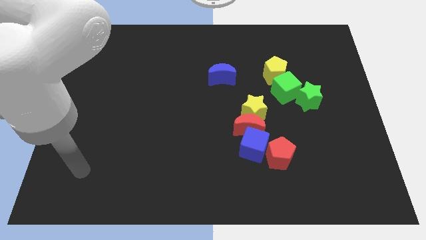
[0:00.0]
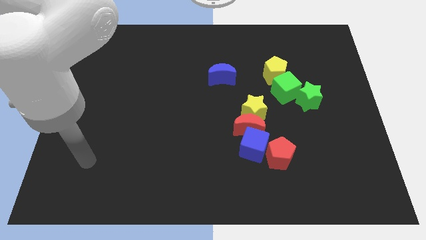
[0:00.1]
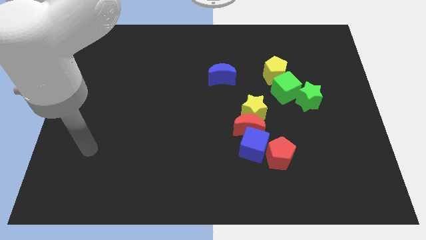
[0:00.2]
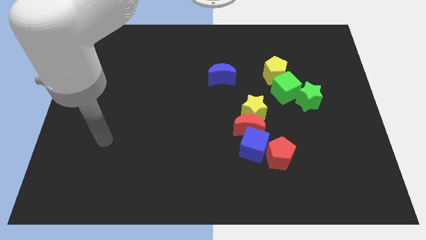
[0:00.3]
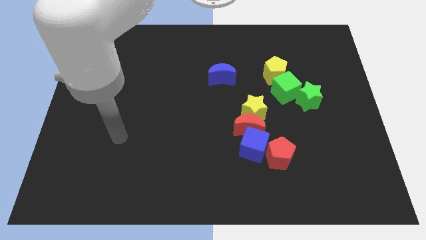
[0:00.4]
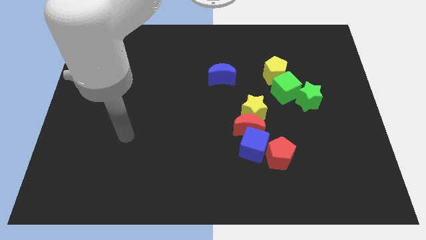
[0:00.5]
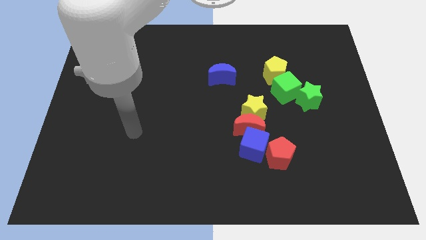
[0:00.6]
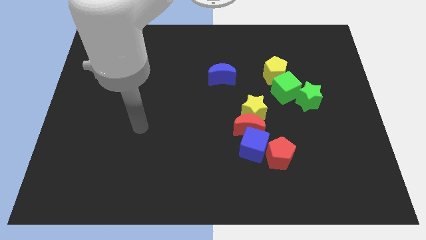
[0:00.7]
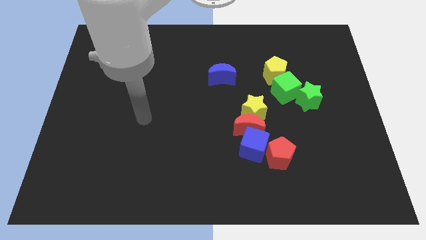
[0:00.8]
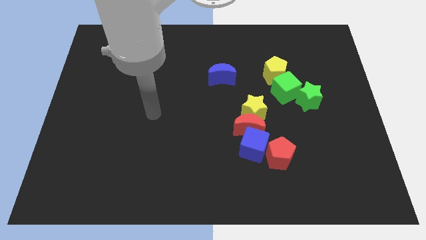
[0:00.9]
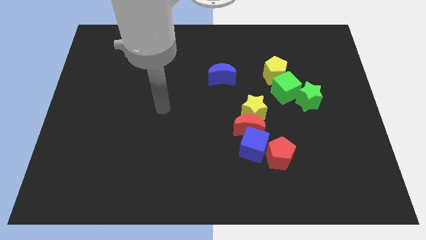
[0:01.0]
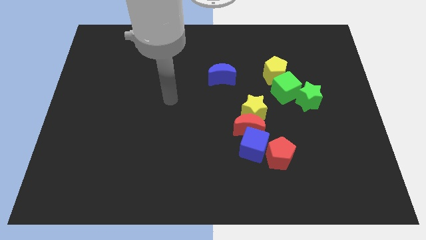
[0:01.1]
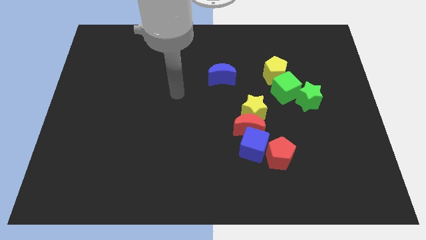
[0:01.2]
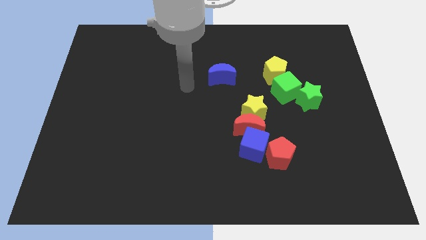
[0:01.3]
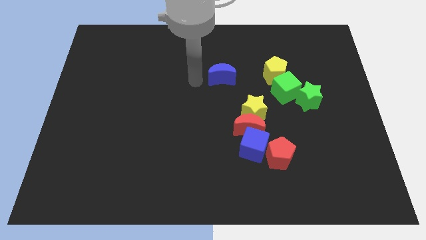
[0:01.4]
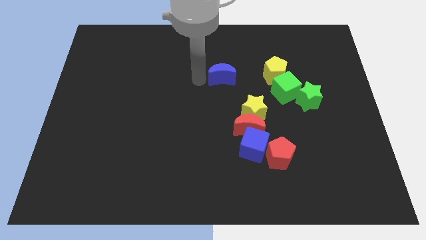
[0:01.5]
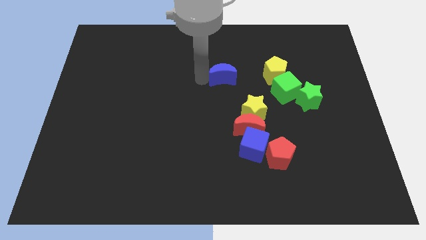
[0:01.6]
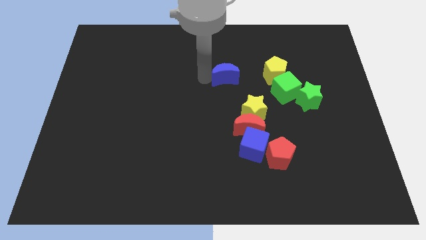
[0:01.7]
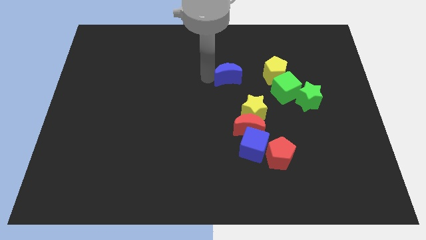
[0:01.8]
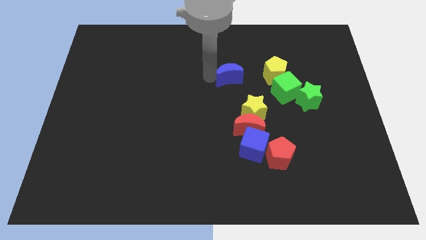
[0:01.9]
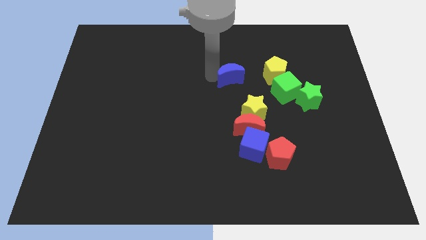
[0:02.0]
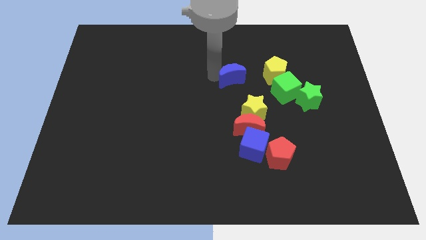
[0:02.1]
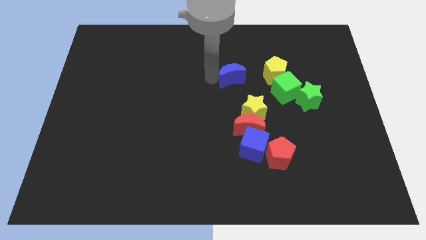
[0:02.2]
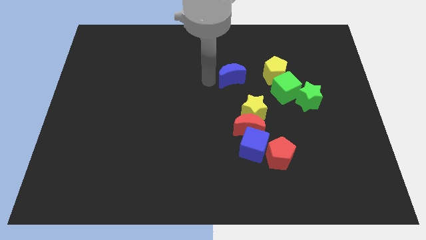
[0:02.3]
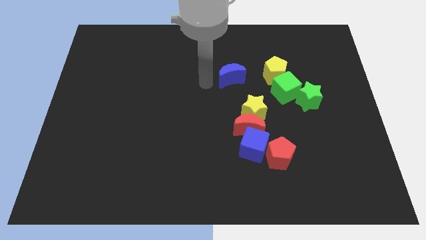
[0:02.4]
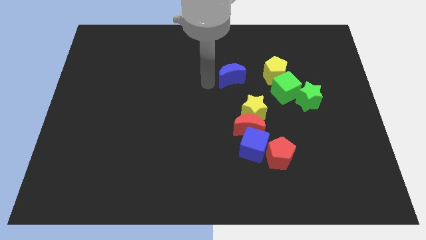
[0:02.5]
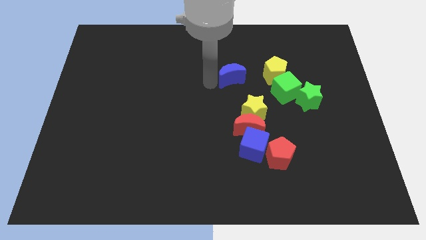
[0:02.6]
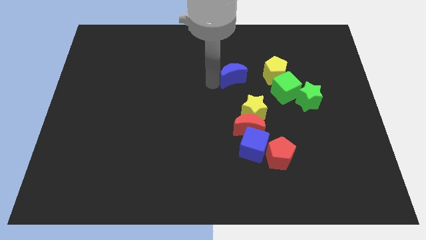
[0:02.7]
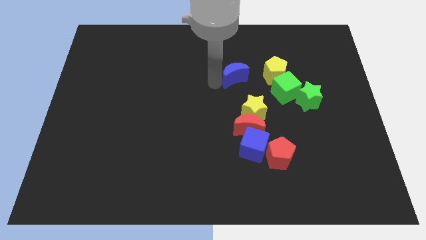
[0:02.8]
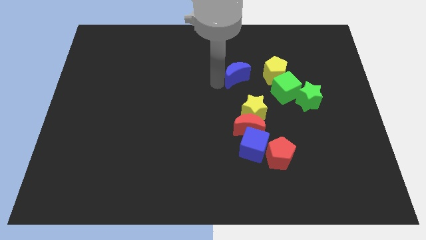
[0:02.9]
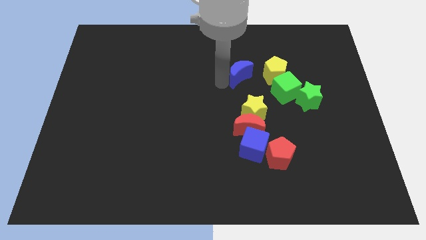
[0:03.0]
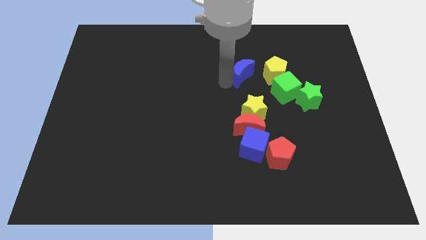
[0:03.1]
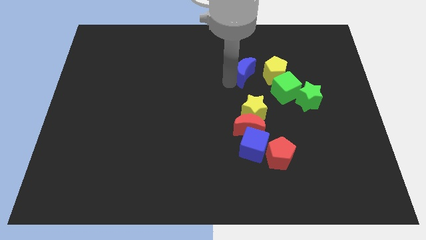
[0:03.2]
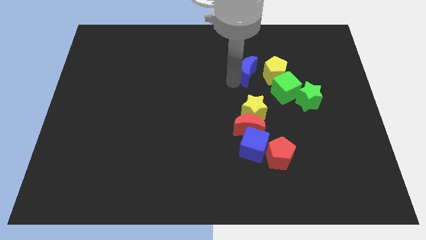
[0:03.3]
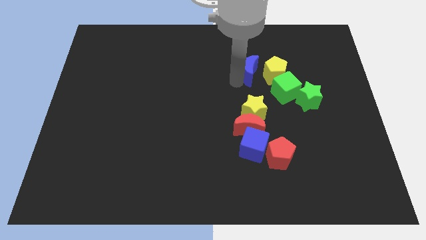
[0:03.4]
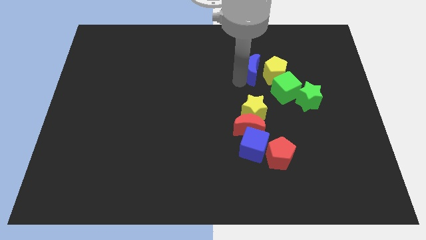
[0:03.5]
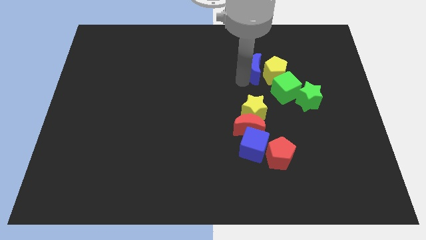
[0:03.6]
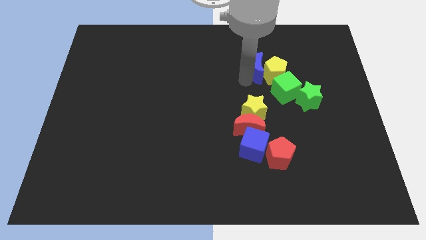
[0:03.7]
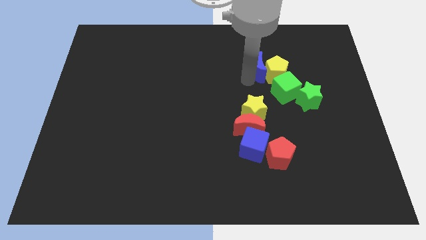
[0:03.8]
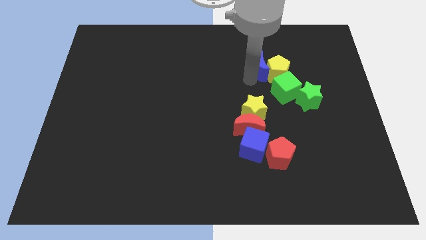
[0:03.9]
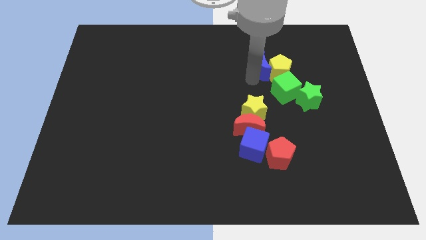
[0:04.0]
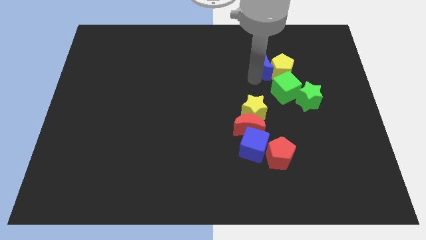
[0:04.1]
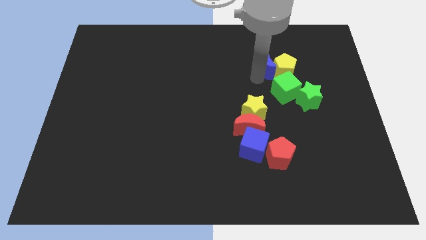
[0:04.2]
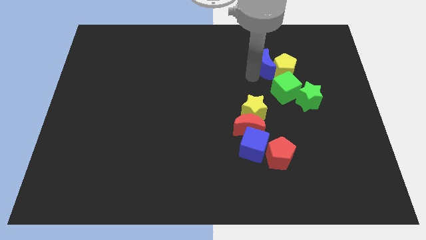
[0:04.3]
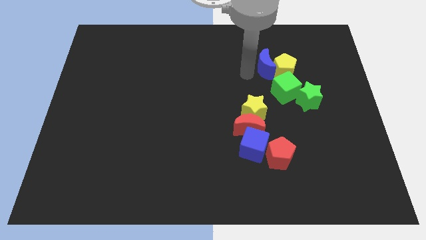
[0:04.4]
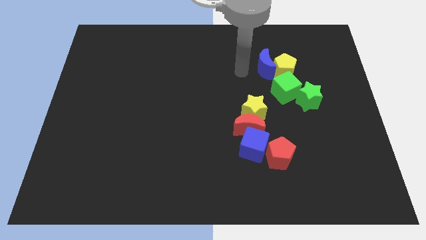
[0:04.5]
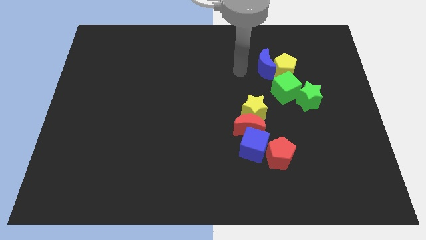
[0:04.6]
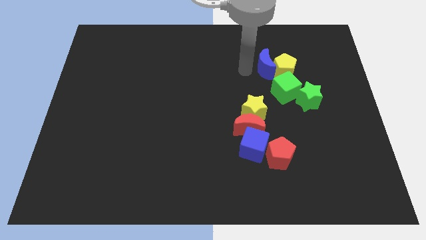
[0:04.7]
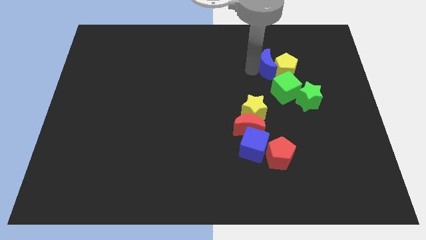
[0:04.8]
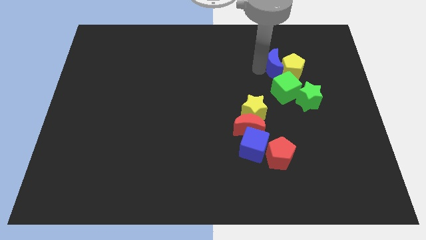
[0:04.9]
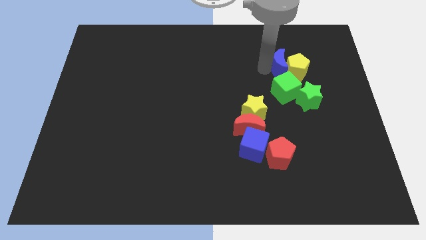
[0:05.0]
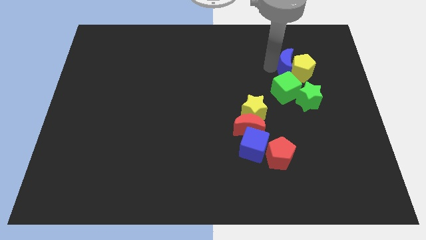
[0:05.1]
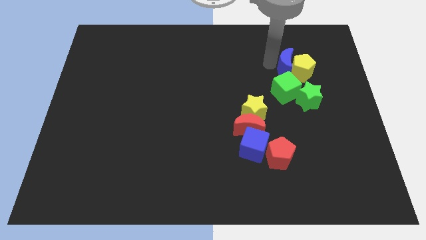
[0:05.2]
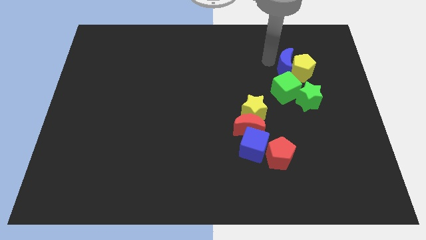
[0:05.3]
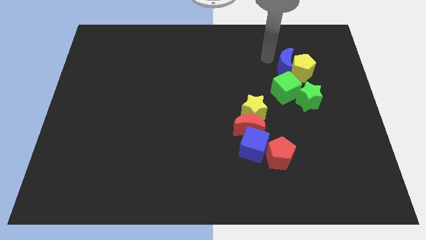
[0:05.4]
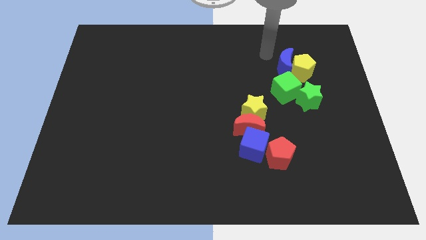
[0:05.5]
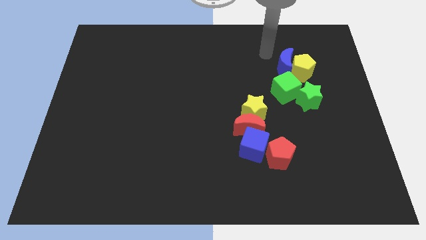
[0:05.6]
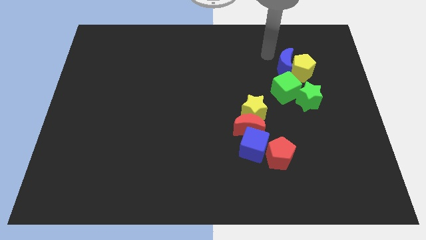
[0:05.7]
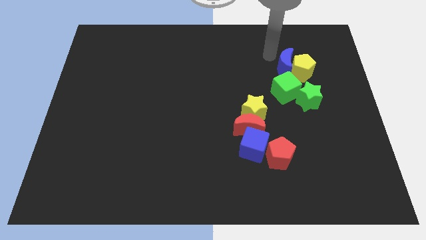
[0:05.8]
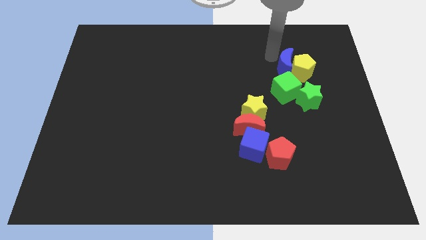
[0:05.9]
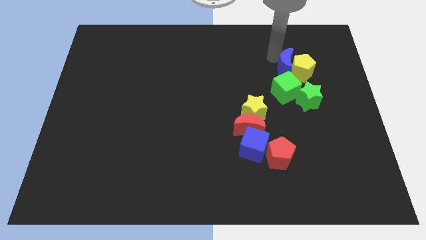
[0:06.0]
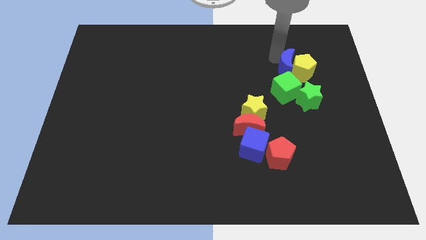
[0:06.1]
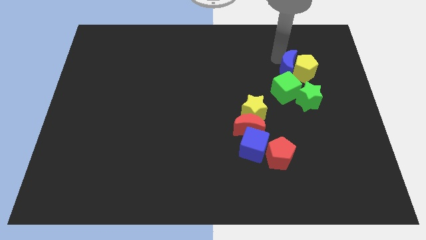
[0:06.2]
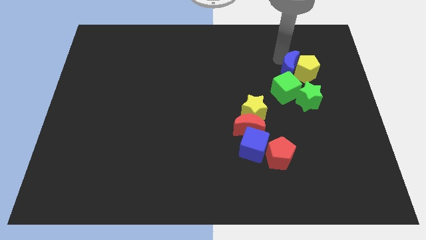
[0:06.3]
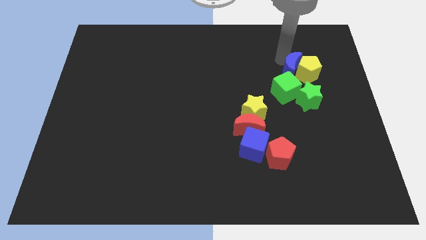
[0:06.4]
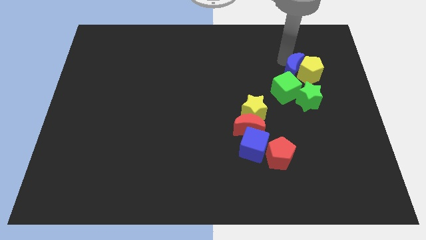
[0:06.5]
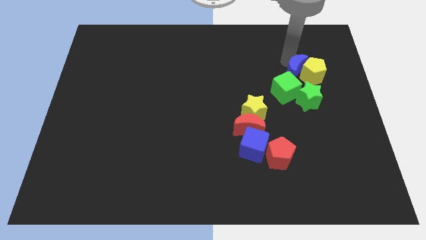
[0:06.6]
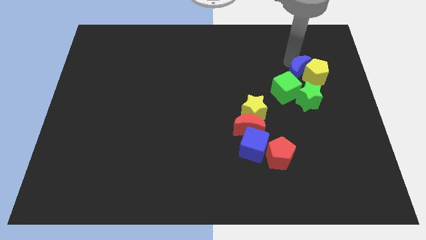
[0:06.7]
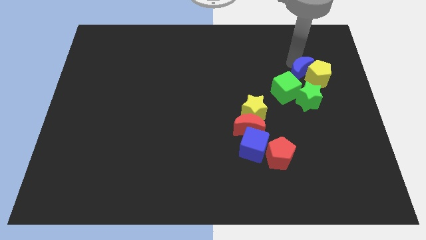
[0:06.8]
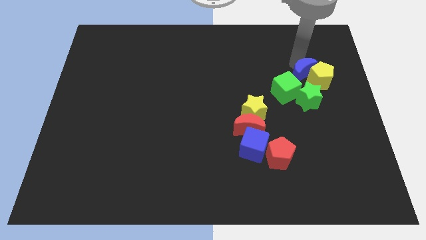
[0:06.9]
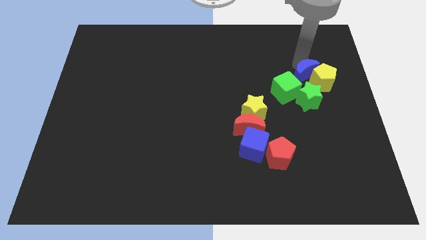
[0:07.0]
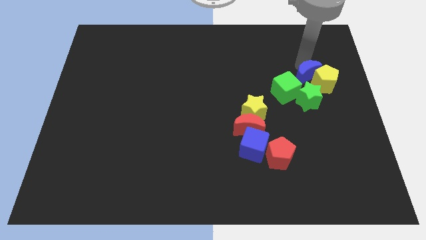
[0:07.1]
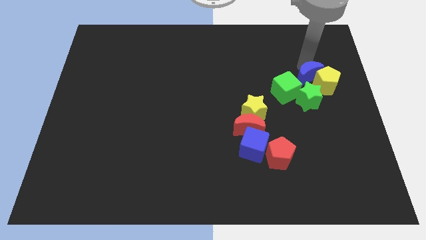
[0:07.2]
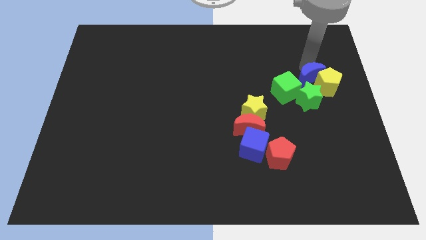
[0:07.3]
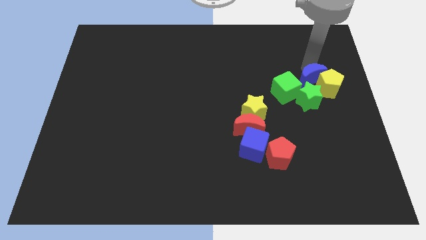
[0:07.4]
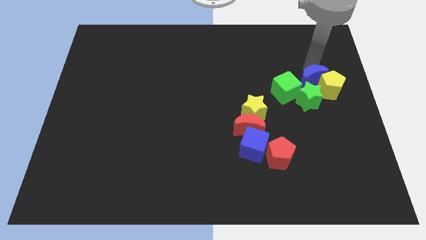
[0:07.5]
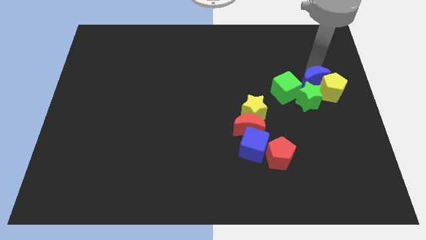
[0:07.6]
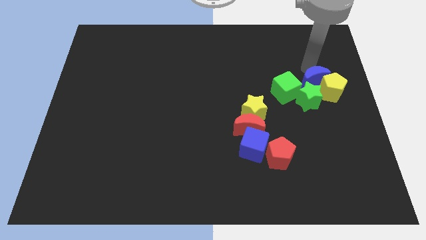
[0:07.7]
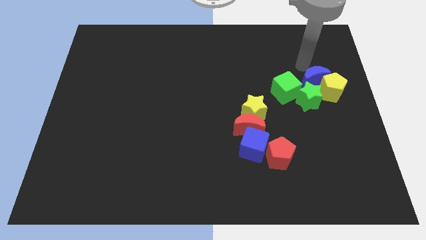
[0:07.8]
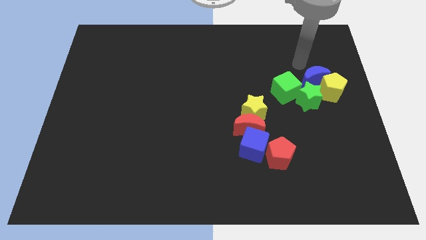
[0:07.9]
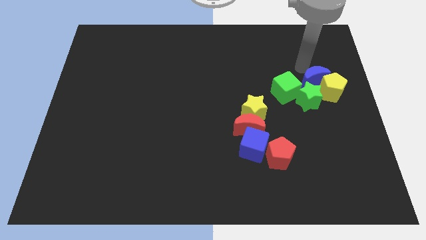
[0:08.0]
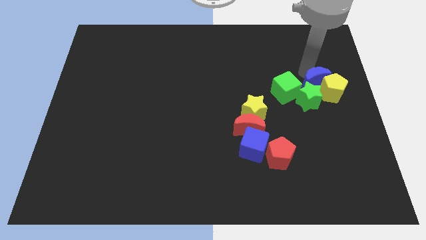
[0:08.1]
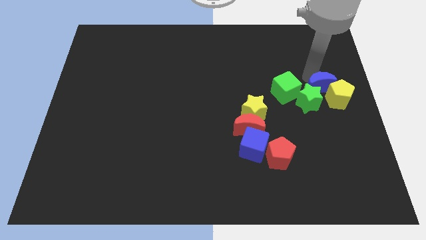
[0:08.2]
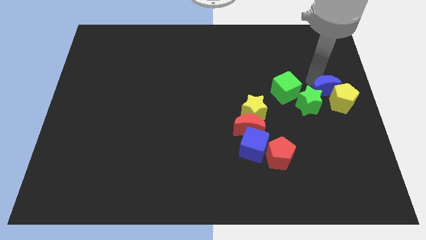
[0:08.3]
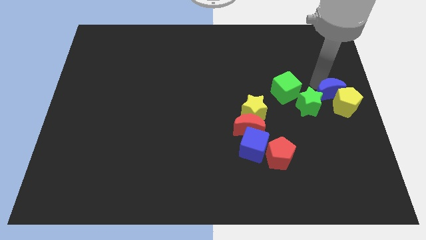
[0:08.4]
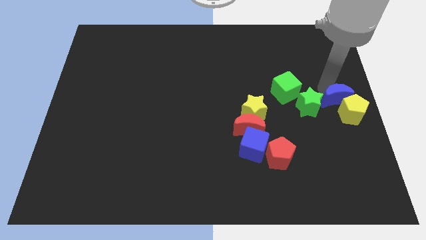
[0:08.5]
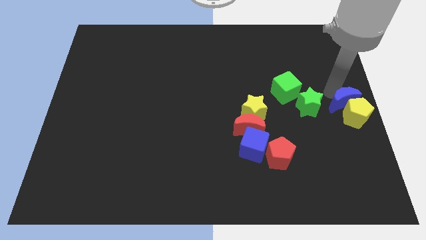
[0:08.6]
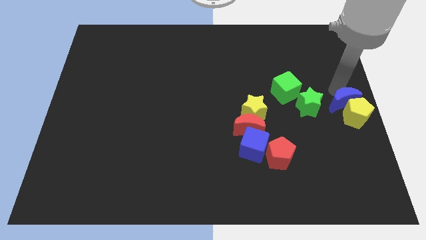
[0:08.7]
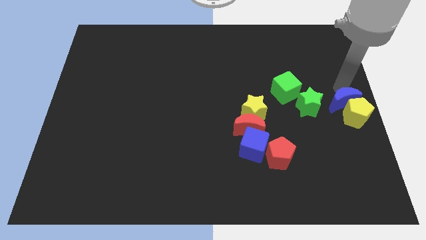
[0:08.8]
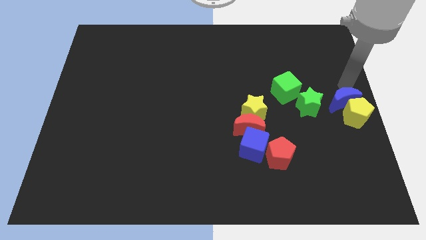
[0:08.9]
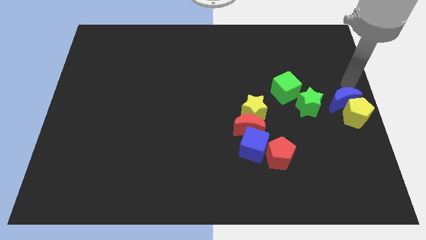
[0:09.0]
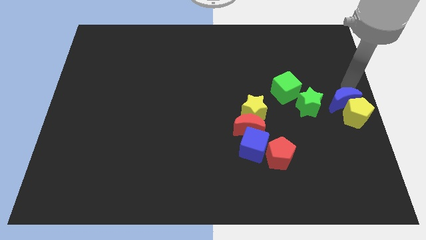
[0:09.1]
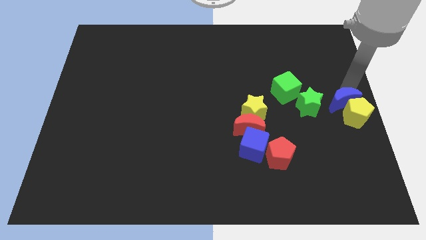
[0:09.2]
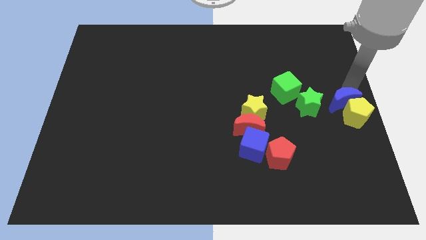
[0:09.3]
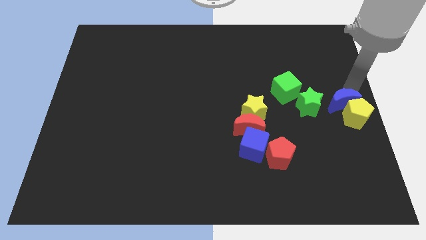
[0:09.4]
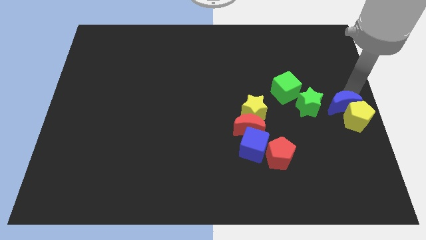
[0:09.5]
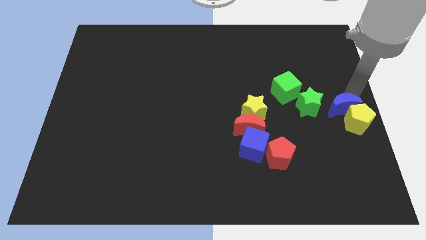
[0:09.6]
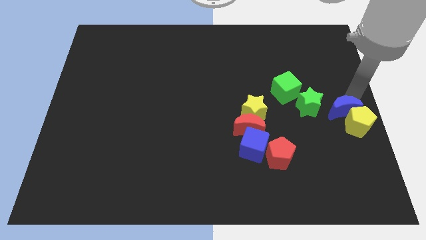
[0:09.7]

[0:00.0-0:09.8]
put the blue moon to the bottom right of the green star
